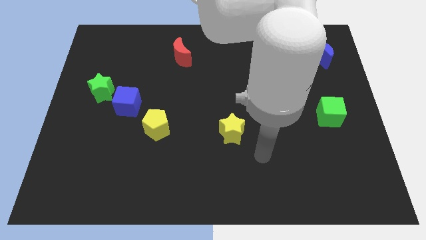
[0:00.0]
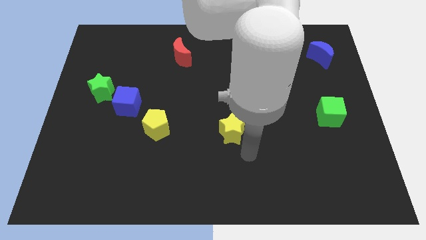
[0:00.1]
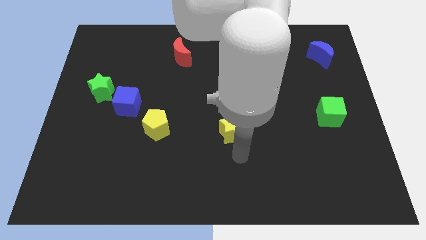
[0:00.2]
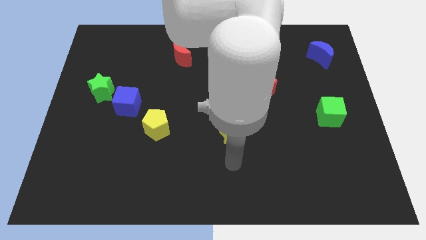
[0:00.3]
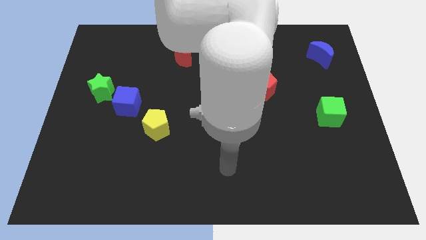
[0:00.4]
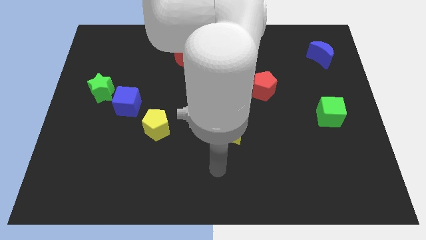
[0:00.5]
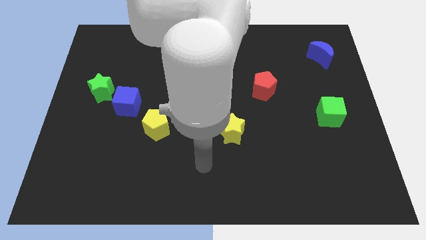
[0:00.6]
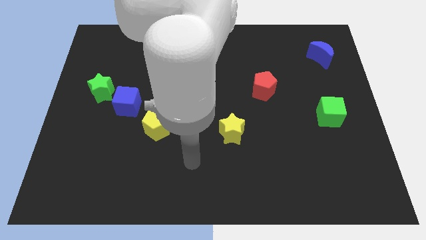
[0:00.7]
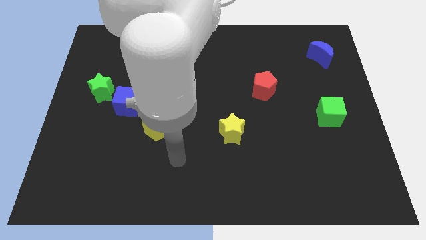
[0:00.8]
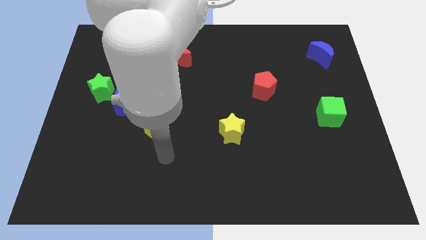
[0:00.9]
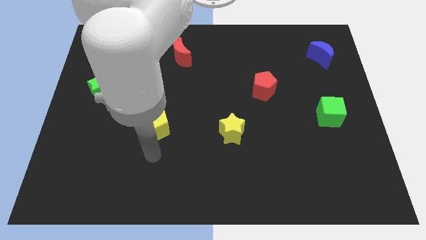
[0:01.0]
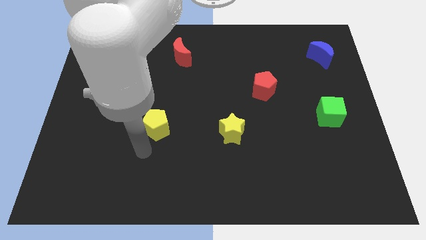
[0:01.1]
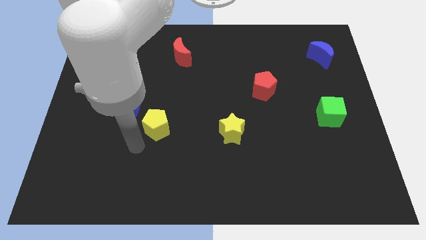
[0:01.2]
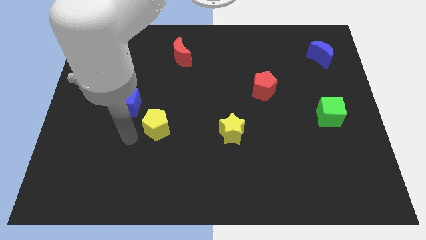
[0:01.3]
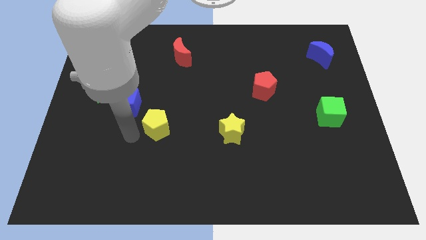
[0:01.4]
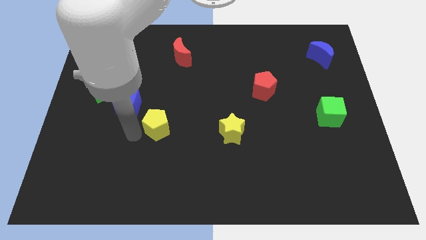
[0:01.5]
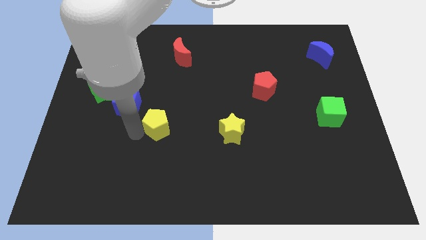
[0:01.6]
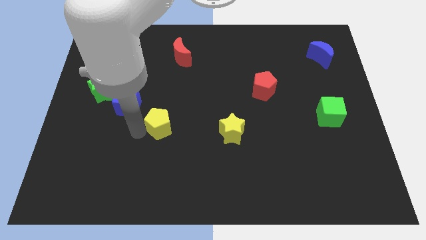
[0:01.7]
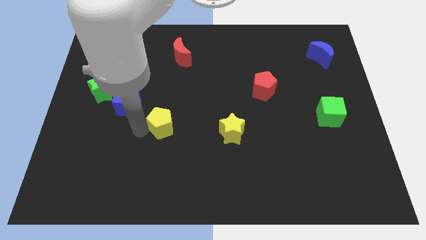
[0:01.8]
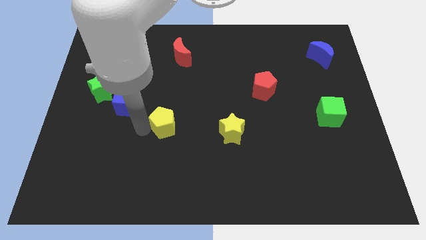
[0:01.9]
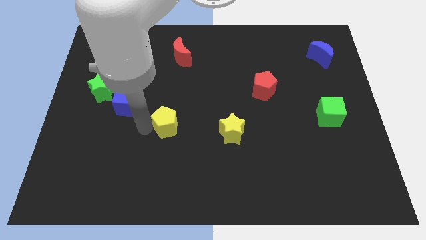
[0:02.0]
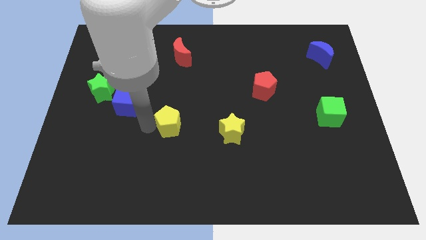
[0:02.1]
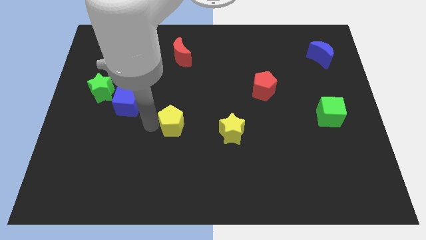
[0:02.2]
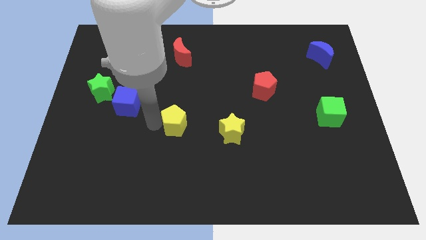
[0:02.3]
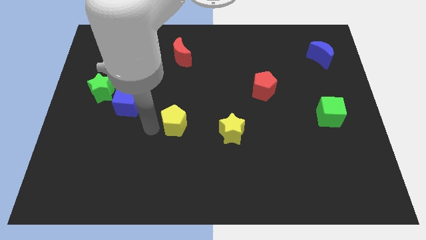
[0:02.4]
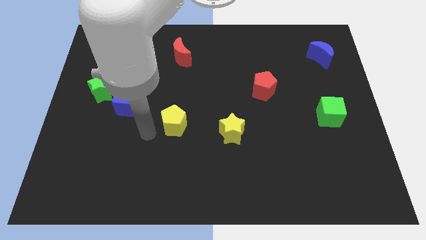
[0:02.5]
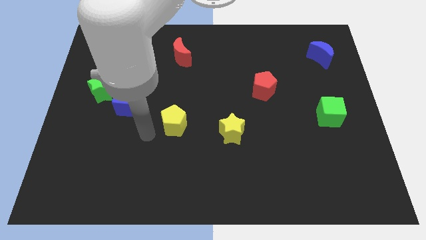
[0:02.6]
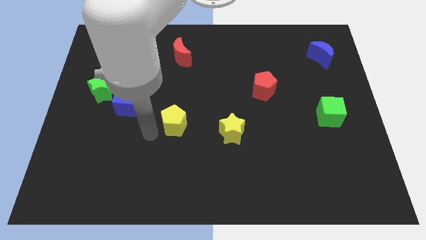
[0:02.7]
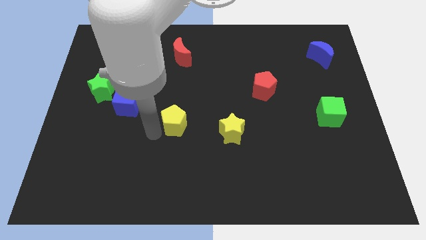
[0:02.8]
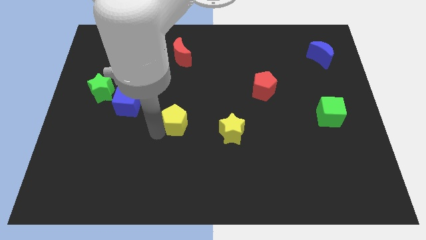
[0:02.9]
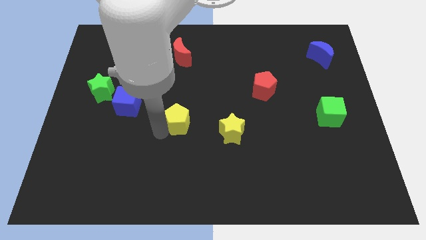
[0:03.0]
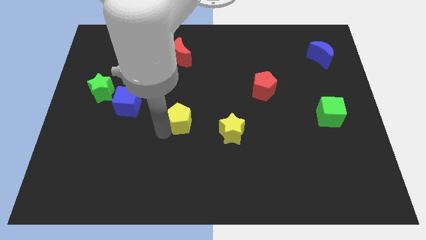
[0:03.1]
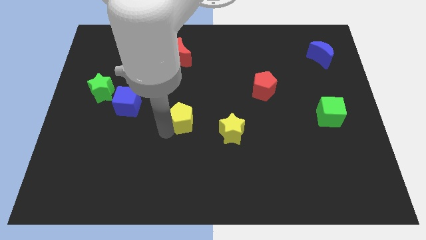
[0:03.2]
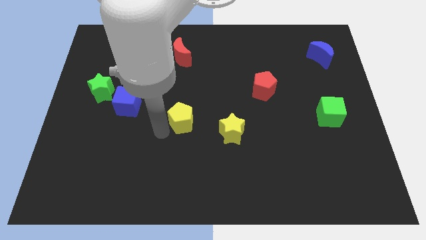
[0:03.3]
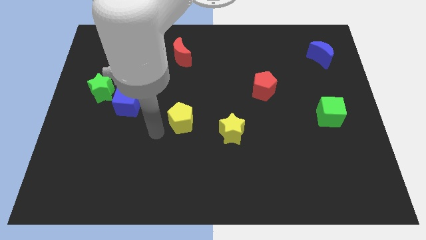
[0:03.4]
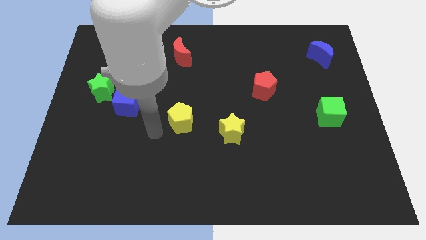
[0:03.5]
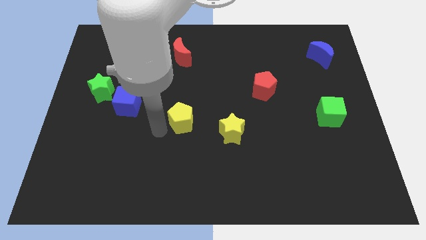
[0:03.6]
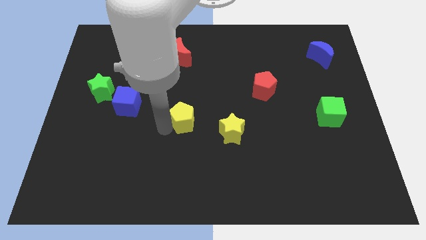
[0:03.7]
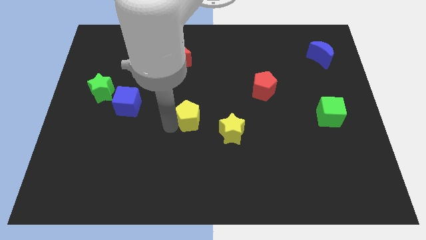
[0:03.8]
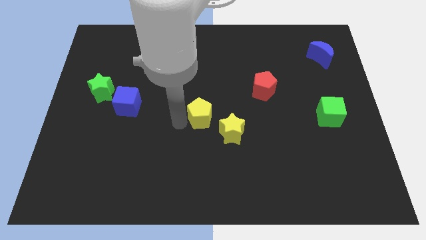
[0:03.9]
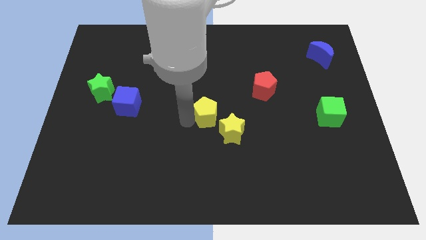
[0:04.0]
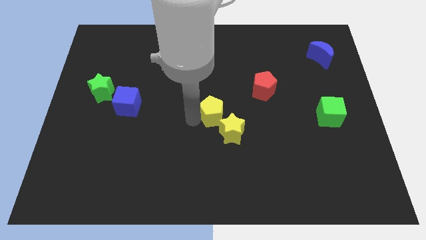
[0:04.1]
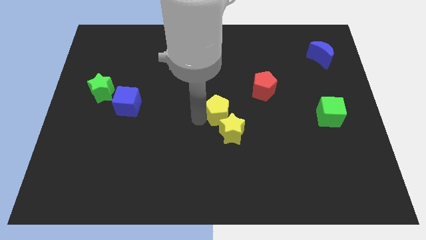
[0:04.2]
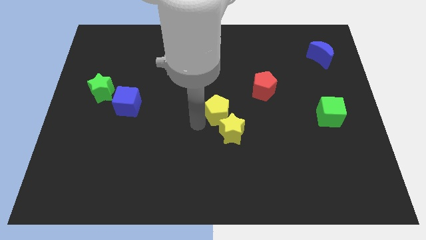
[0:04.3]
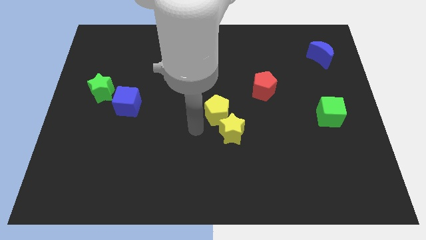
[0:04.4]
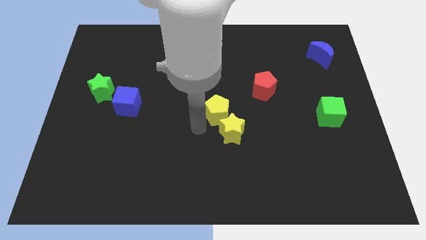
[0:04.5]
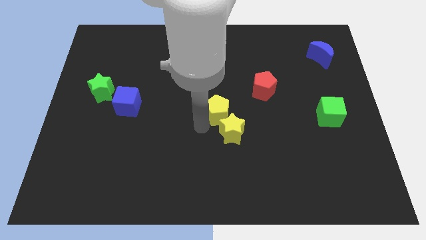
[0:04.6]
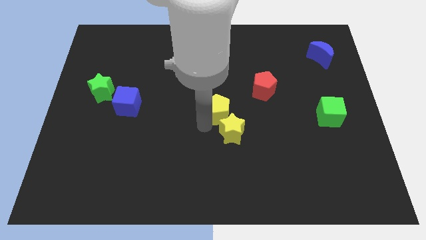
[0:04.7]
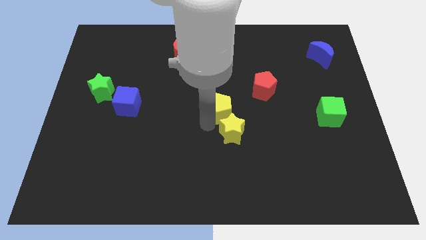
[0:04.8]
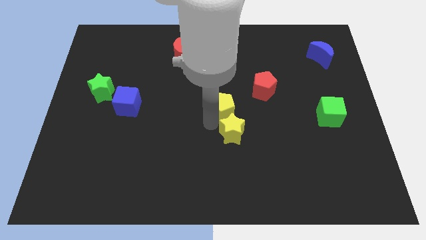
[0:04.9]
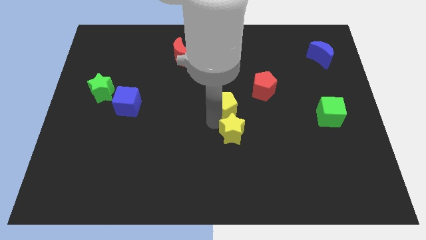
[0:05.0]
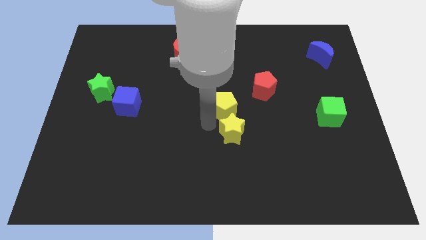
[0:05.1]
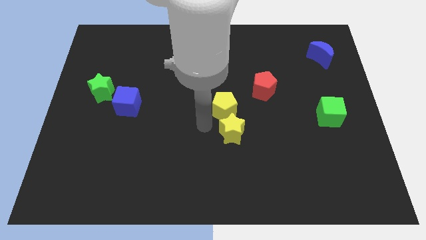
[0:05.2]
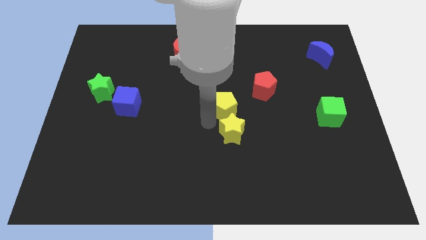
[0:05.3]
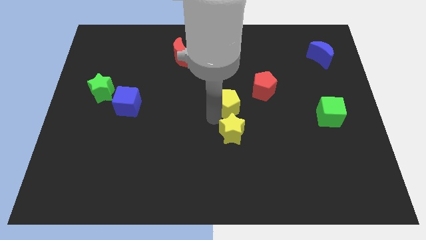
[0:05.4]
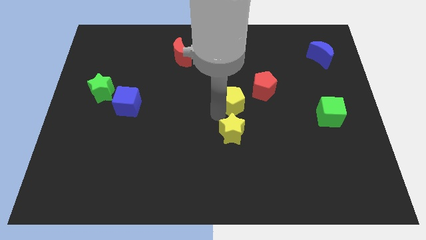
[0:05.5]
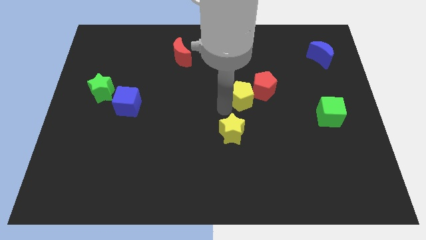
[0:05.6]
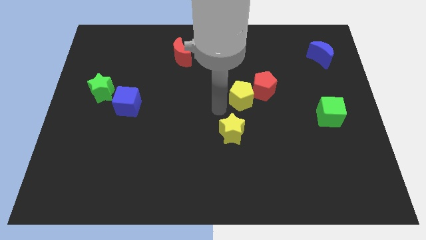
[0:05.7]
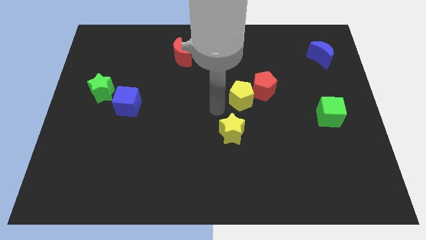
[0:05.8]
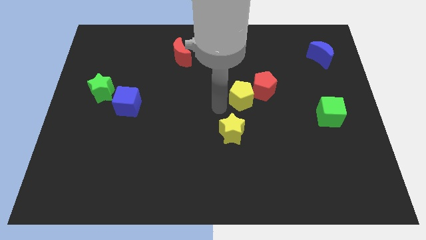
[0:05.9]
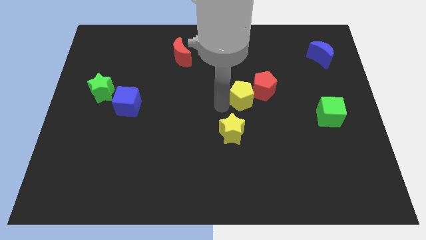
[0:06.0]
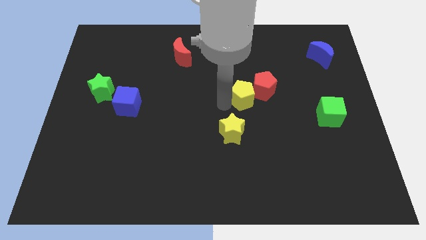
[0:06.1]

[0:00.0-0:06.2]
put the yellow pentagon towards the red pentagon

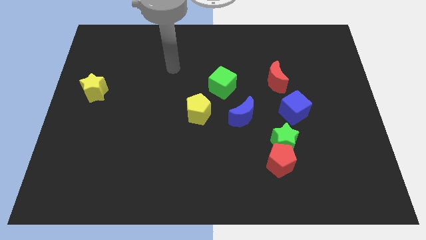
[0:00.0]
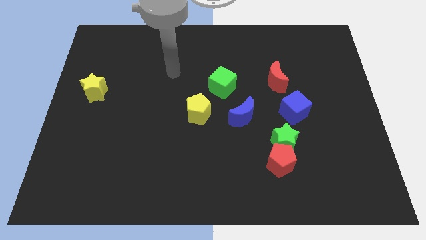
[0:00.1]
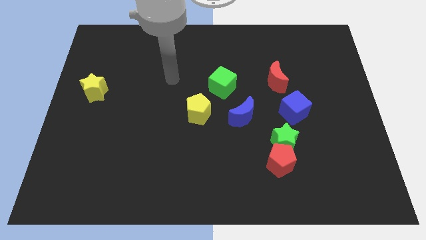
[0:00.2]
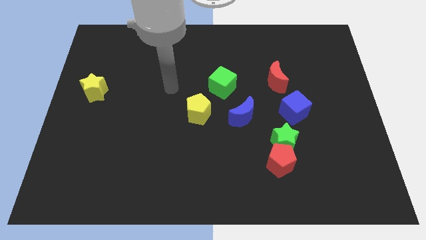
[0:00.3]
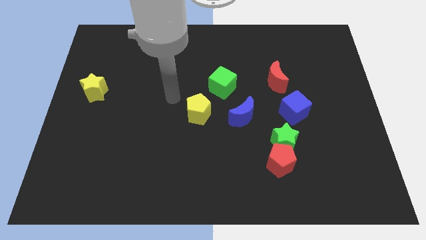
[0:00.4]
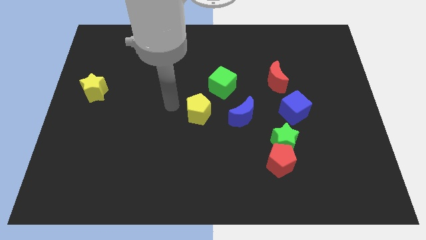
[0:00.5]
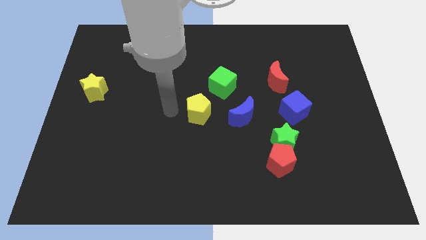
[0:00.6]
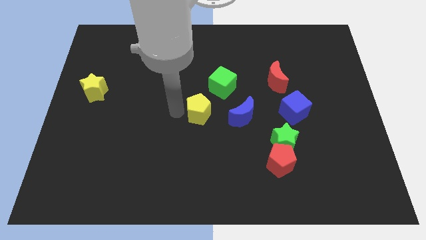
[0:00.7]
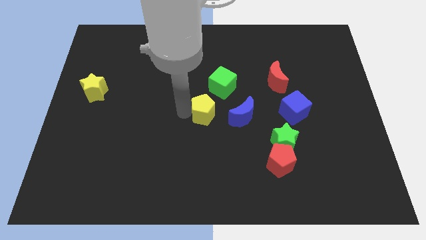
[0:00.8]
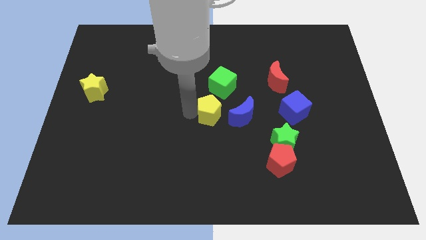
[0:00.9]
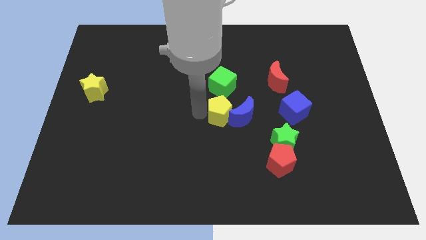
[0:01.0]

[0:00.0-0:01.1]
slide the yellow pentagon close to the blue moon
